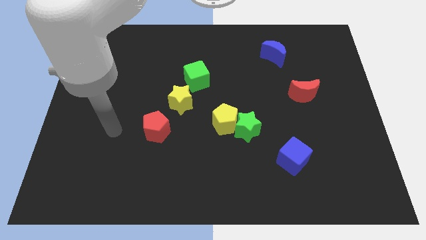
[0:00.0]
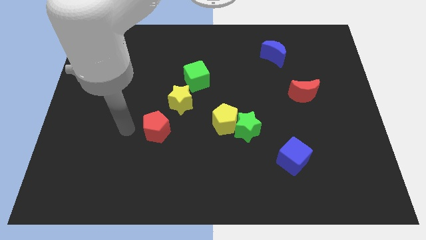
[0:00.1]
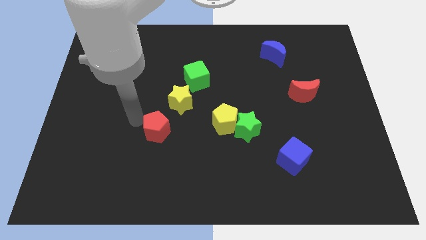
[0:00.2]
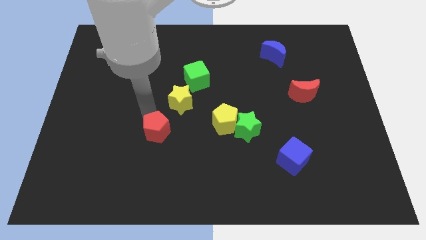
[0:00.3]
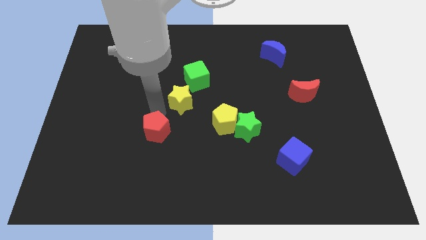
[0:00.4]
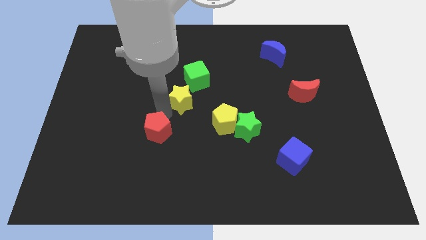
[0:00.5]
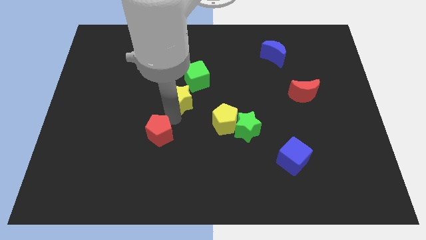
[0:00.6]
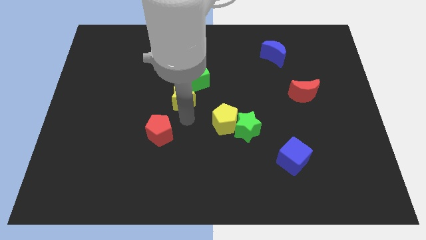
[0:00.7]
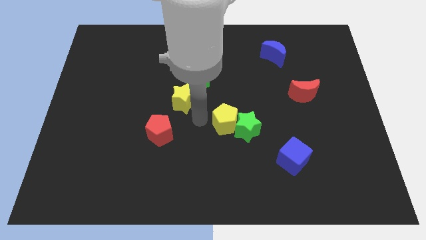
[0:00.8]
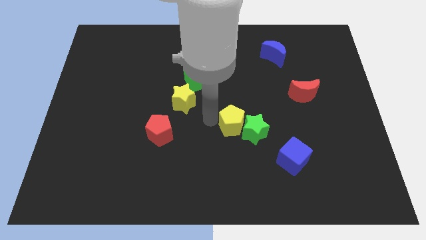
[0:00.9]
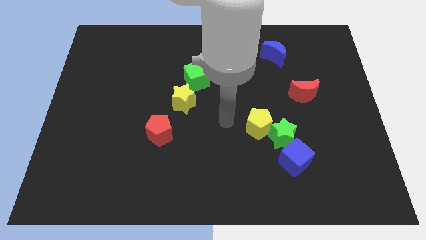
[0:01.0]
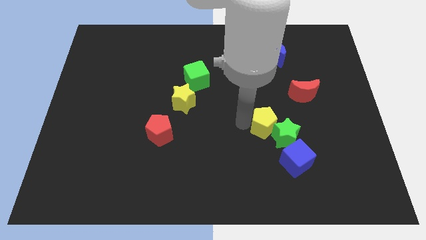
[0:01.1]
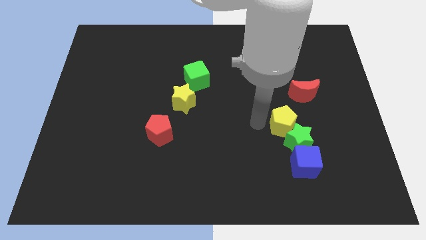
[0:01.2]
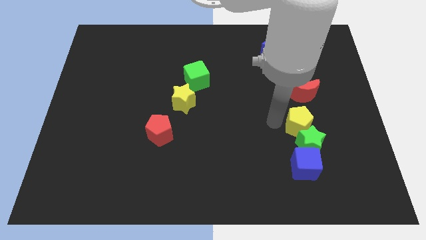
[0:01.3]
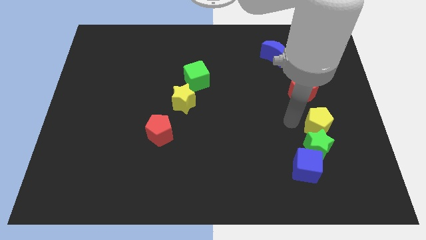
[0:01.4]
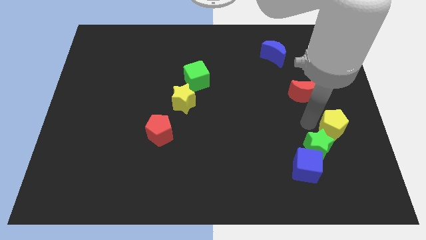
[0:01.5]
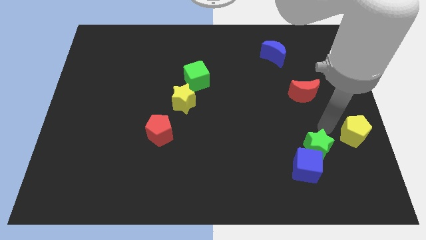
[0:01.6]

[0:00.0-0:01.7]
separate the green star from the yellow pentagon

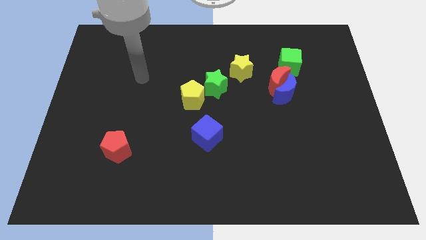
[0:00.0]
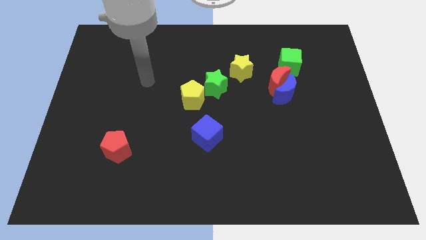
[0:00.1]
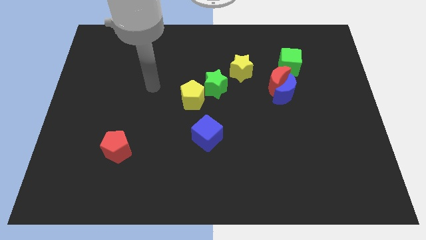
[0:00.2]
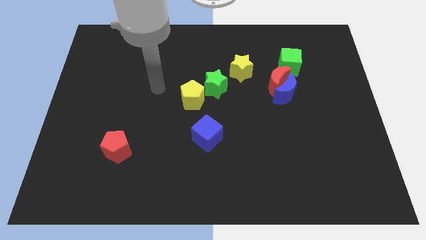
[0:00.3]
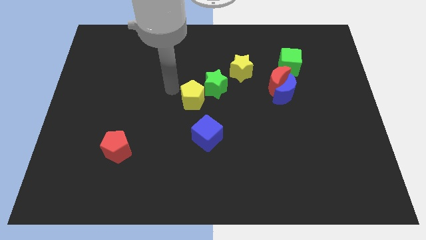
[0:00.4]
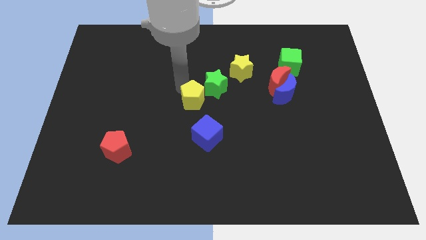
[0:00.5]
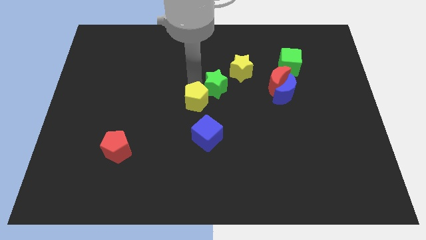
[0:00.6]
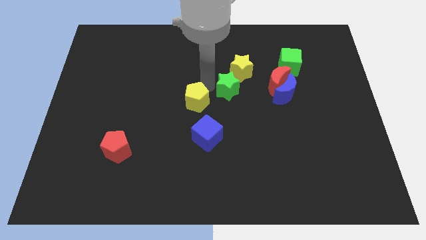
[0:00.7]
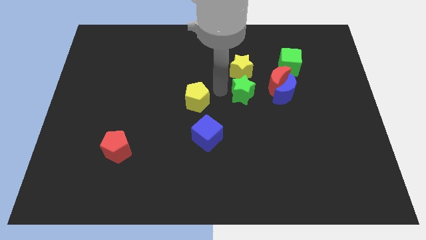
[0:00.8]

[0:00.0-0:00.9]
separate the yellow pentagon from the green star

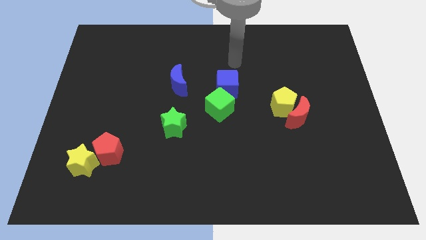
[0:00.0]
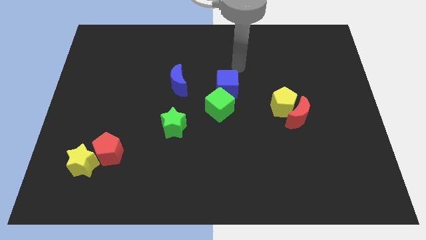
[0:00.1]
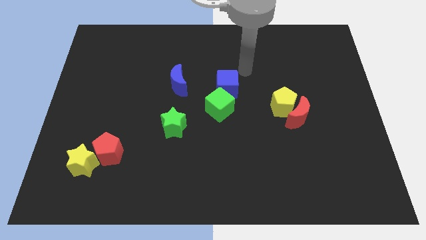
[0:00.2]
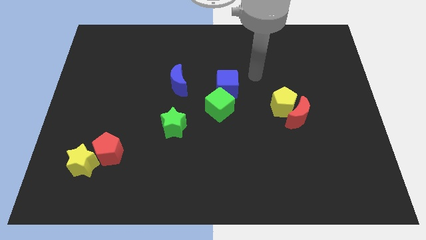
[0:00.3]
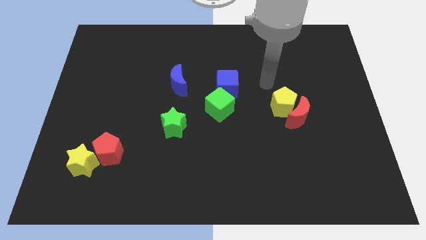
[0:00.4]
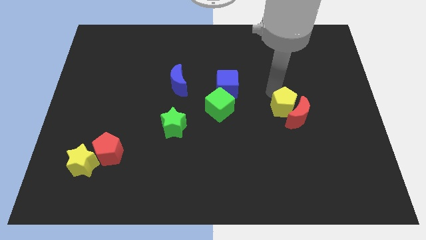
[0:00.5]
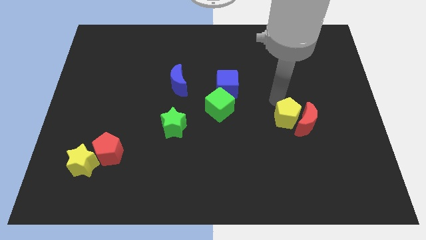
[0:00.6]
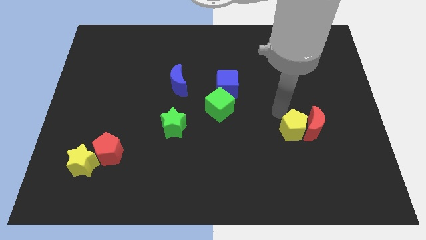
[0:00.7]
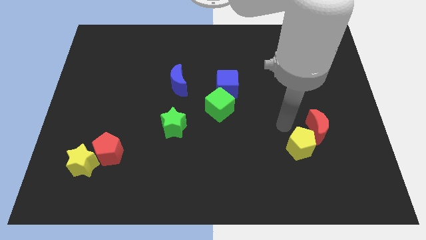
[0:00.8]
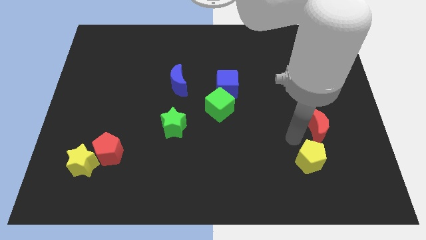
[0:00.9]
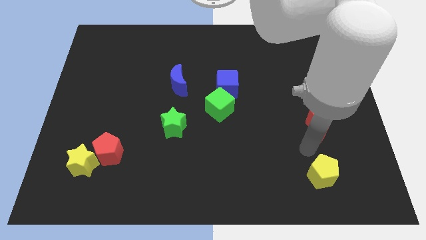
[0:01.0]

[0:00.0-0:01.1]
move the red moon away from the yellow pentagon

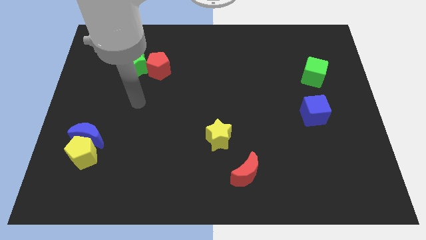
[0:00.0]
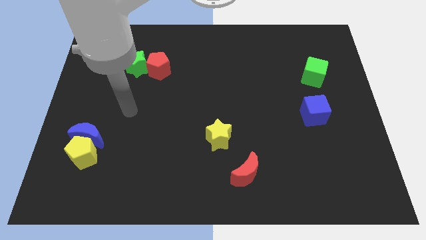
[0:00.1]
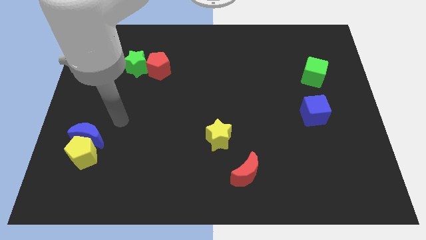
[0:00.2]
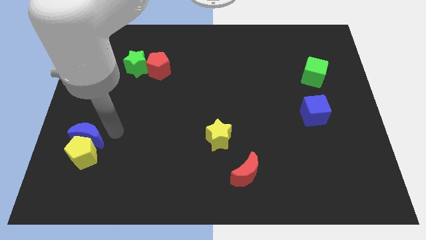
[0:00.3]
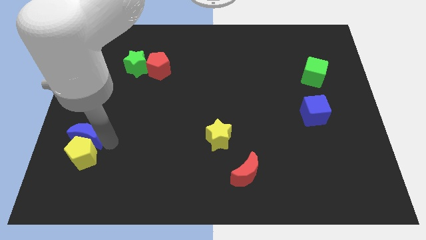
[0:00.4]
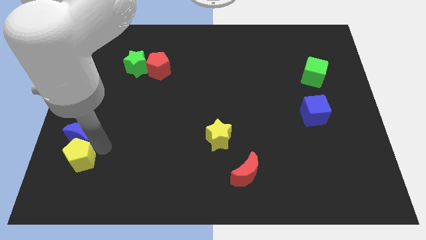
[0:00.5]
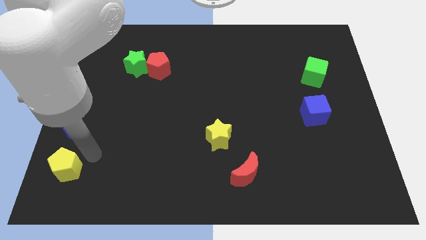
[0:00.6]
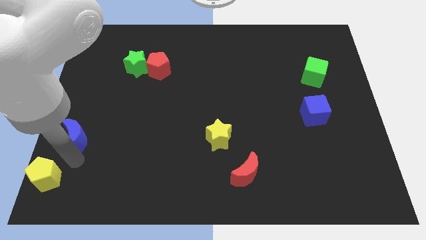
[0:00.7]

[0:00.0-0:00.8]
move the blue moon away from the yellow pentagon

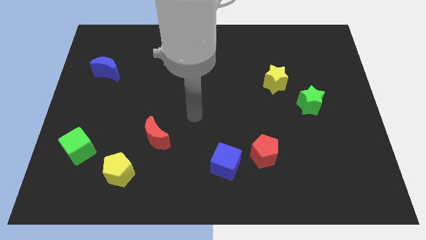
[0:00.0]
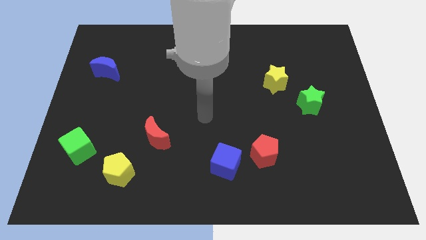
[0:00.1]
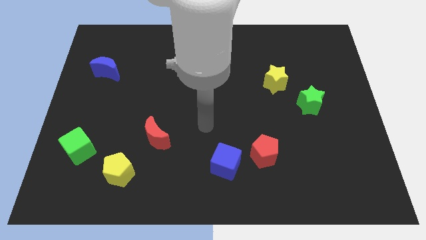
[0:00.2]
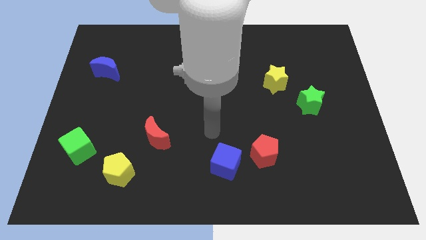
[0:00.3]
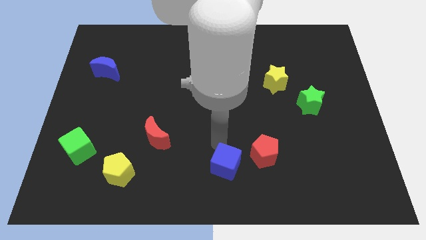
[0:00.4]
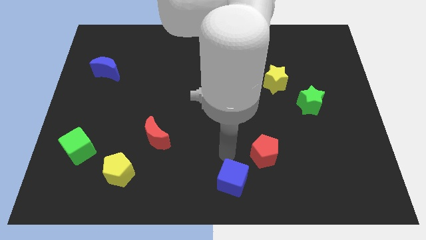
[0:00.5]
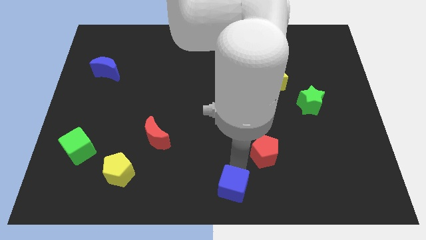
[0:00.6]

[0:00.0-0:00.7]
separate the red pentagon from the blue cube

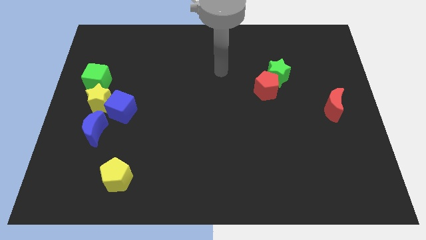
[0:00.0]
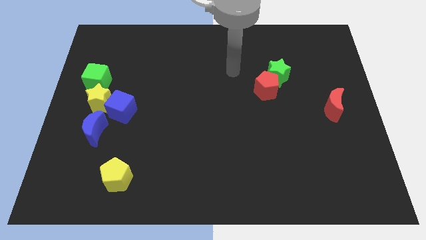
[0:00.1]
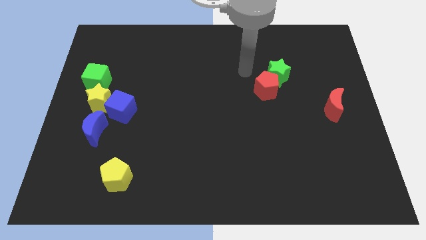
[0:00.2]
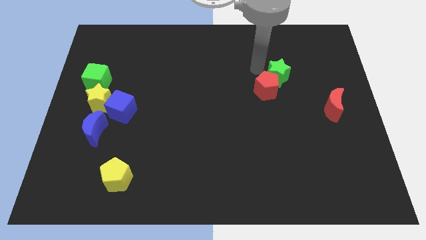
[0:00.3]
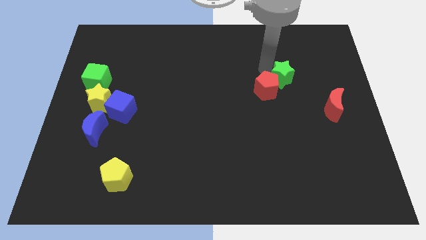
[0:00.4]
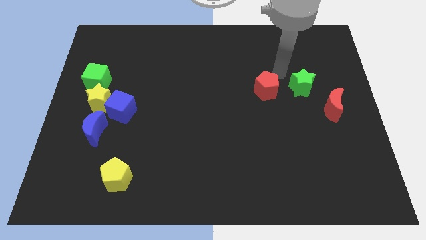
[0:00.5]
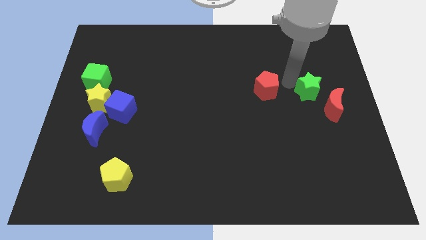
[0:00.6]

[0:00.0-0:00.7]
pull the red pentagon apart from the green star

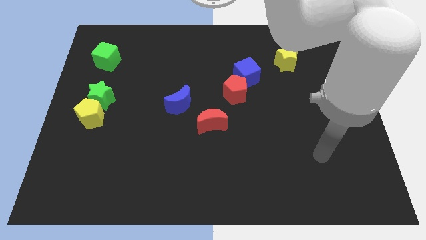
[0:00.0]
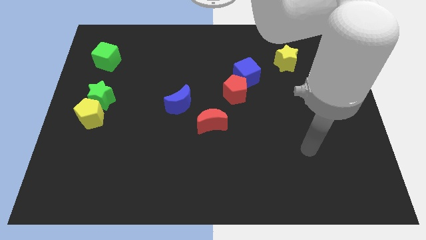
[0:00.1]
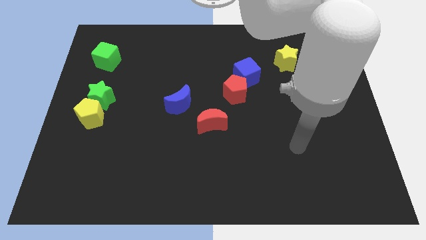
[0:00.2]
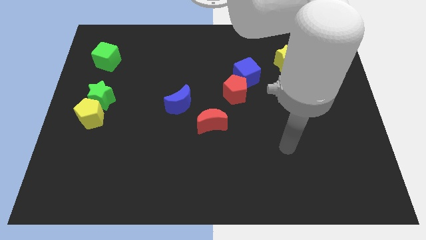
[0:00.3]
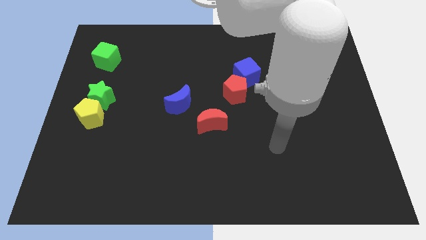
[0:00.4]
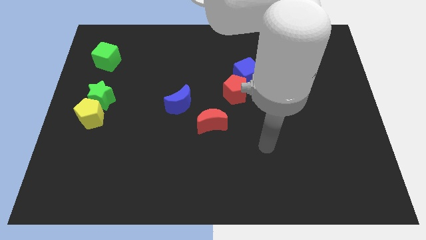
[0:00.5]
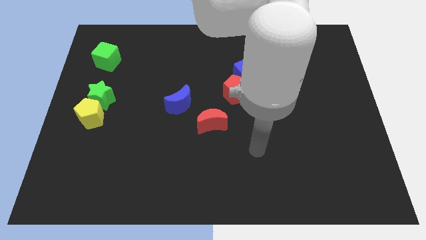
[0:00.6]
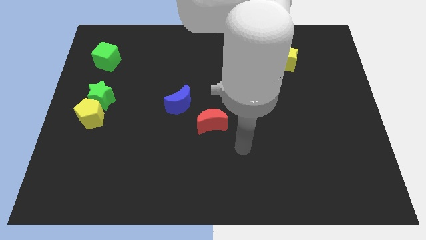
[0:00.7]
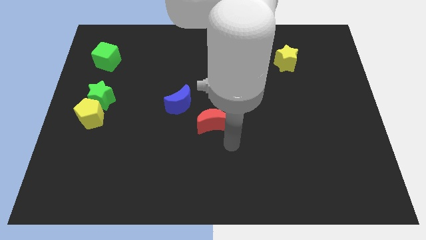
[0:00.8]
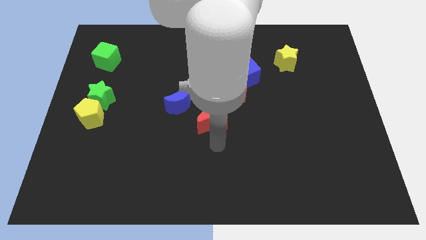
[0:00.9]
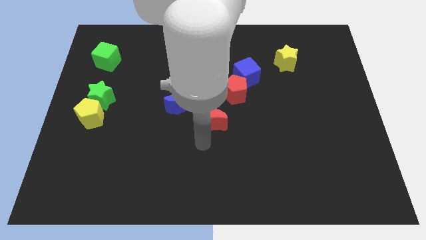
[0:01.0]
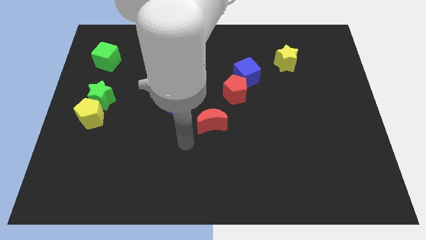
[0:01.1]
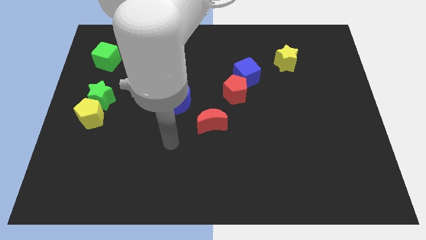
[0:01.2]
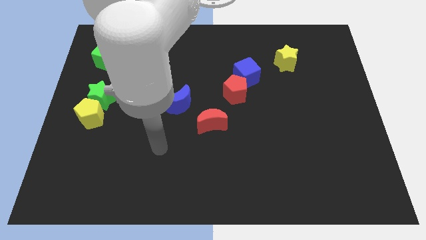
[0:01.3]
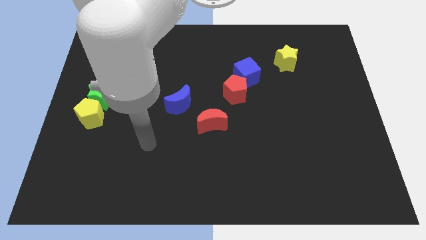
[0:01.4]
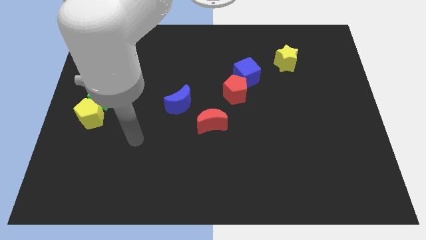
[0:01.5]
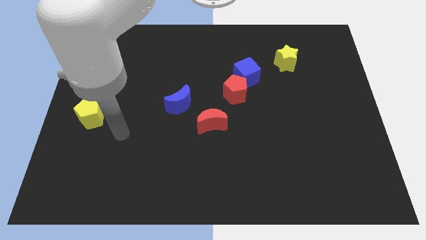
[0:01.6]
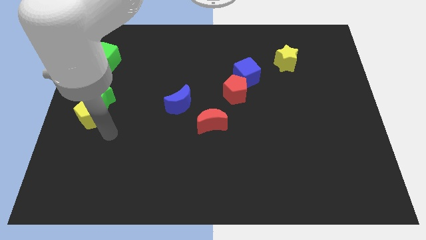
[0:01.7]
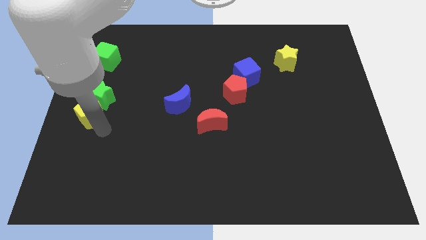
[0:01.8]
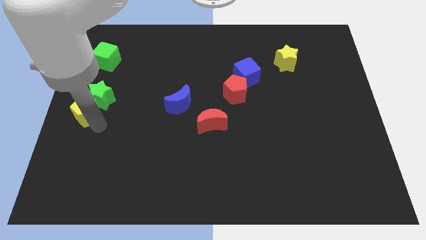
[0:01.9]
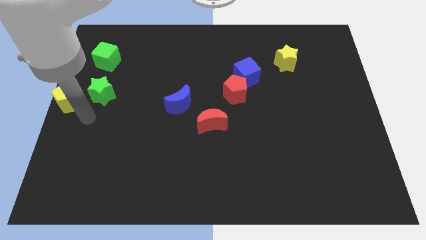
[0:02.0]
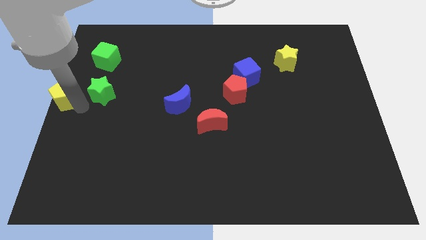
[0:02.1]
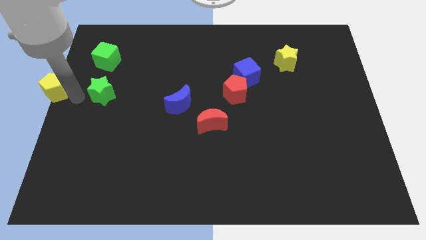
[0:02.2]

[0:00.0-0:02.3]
move the green star away from the yellow pentagon

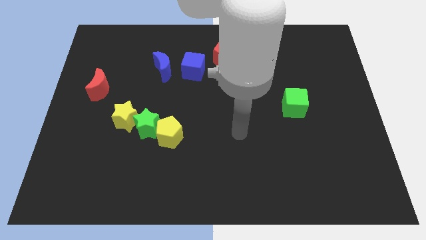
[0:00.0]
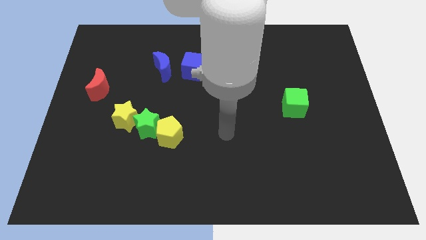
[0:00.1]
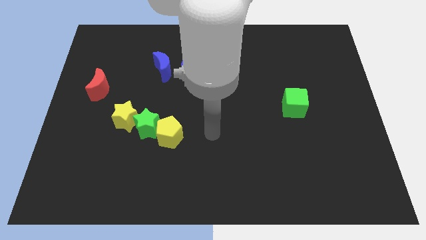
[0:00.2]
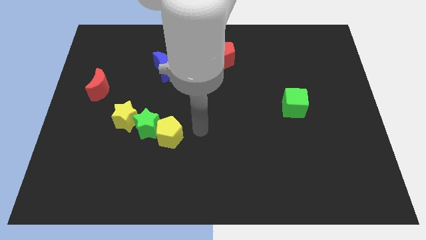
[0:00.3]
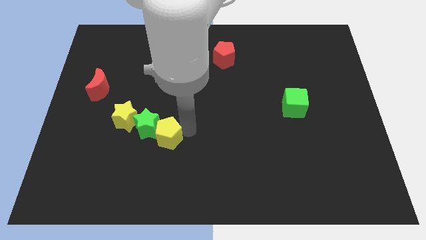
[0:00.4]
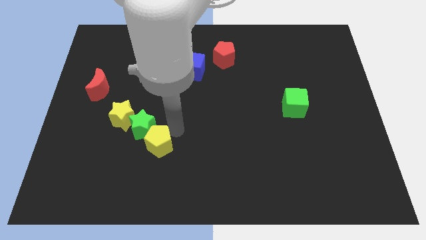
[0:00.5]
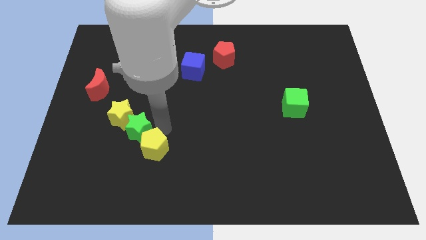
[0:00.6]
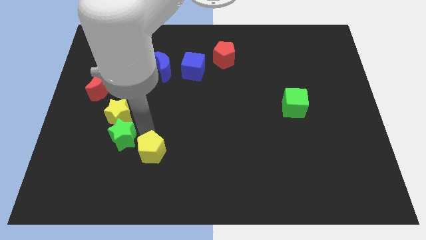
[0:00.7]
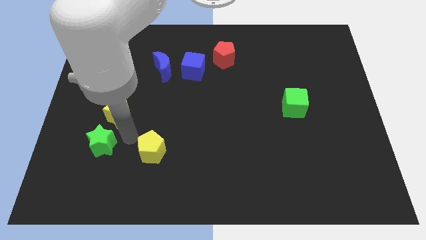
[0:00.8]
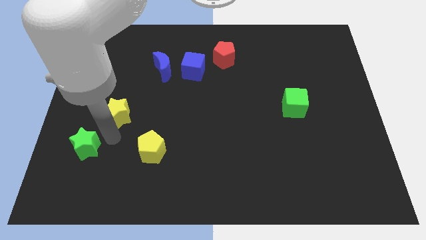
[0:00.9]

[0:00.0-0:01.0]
pull the yellow star apart from the green star
